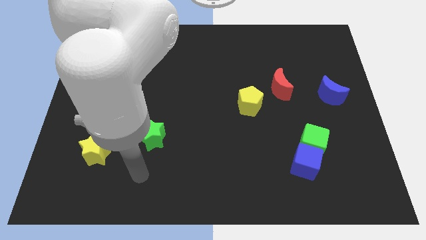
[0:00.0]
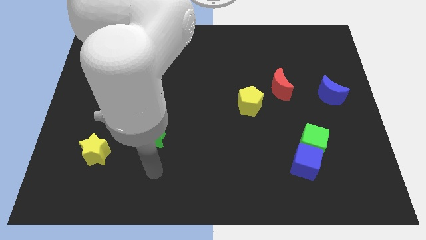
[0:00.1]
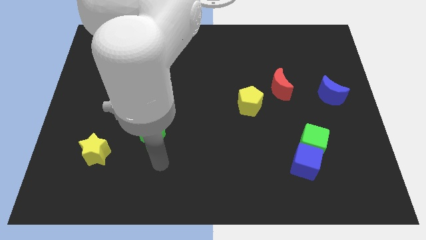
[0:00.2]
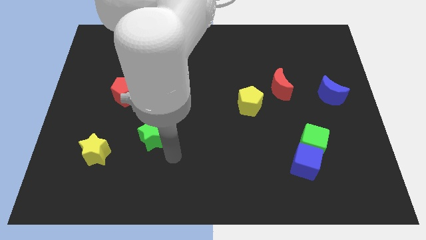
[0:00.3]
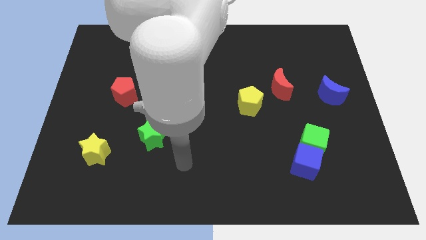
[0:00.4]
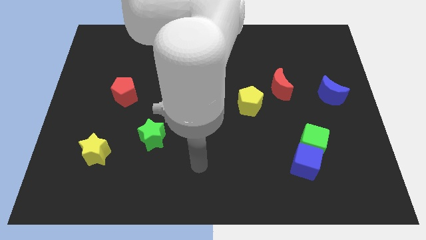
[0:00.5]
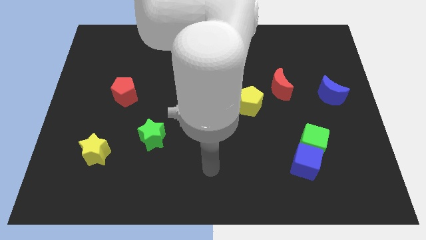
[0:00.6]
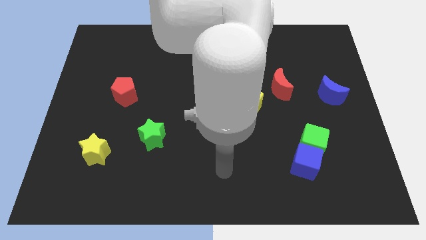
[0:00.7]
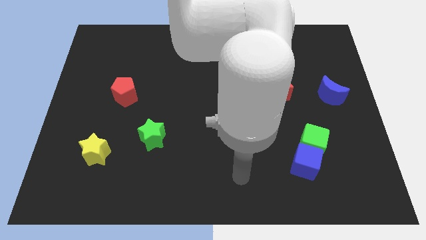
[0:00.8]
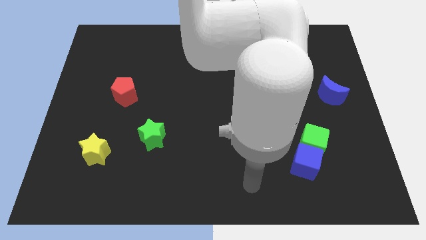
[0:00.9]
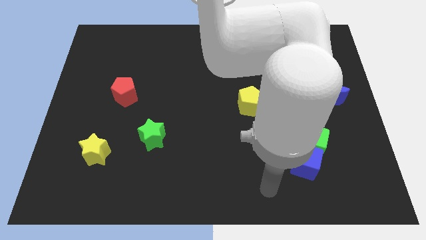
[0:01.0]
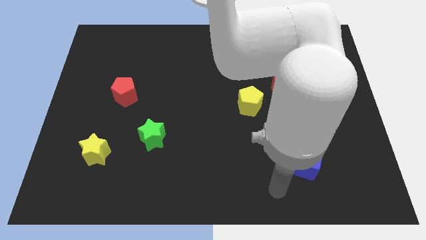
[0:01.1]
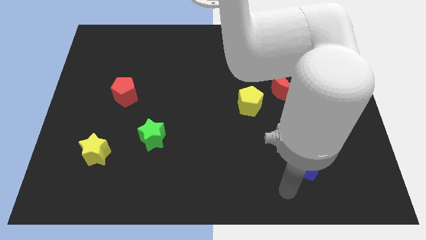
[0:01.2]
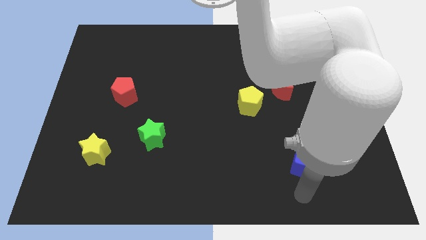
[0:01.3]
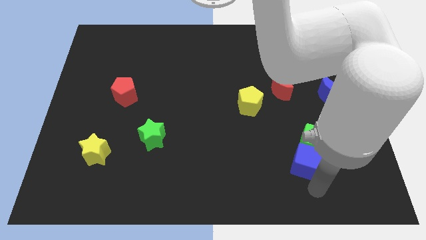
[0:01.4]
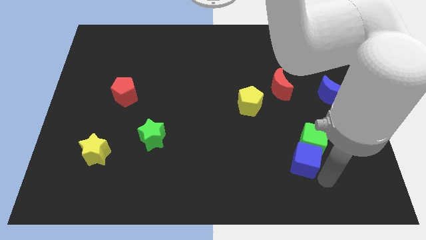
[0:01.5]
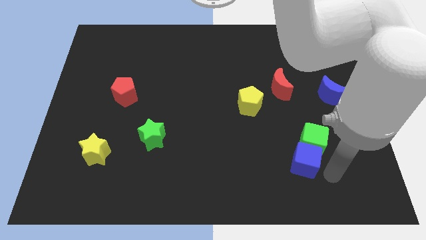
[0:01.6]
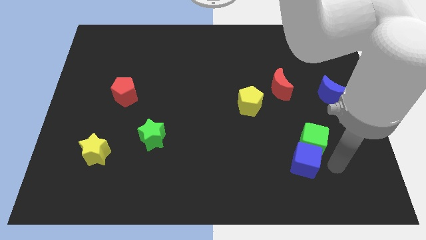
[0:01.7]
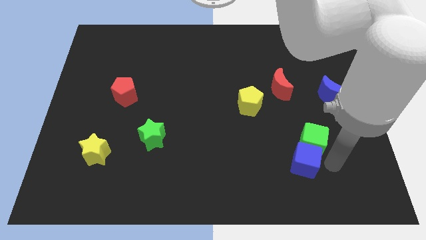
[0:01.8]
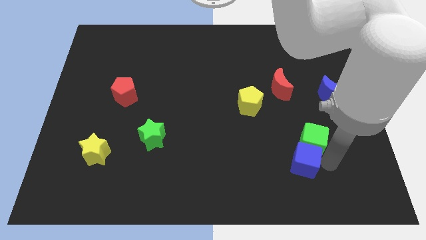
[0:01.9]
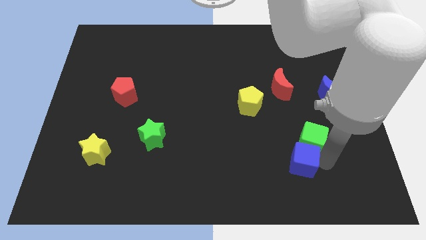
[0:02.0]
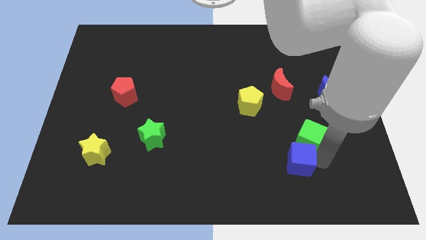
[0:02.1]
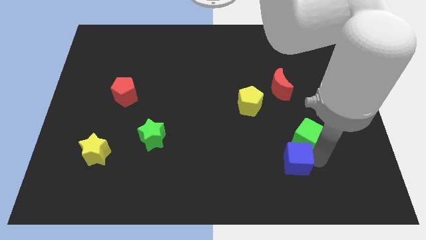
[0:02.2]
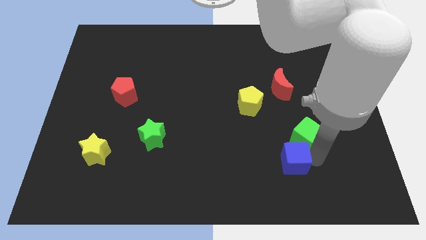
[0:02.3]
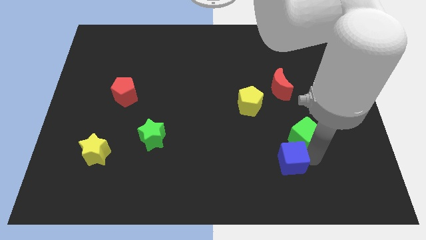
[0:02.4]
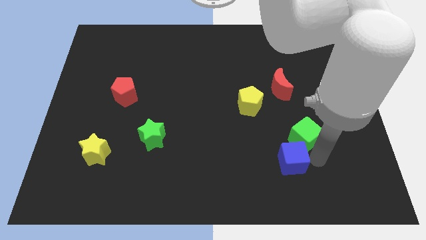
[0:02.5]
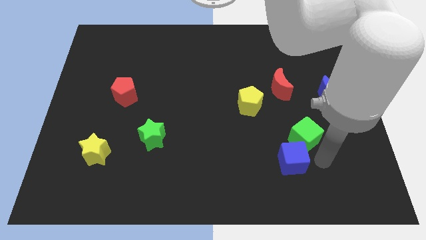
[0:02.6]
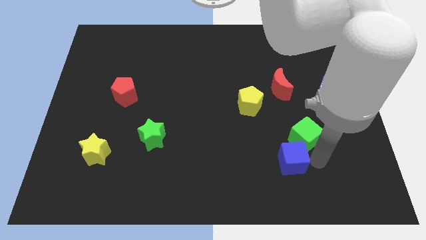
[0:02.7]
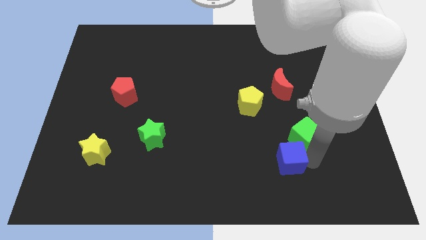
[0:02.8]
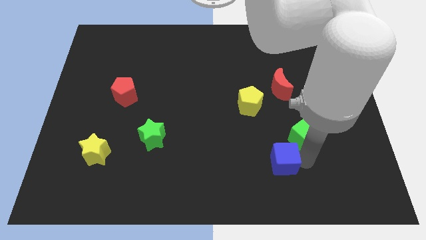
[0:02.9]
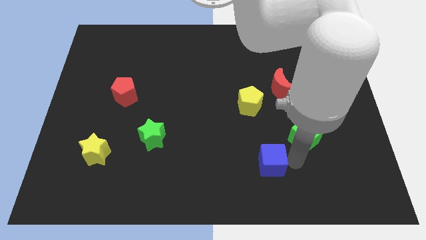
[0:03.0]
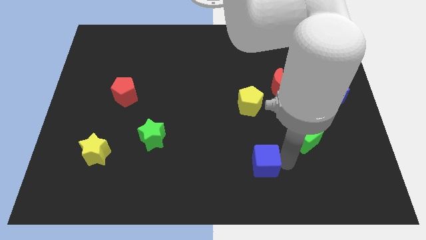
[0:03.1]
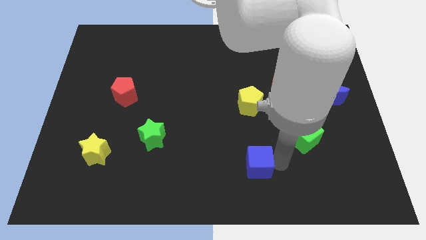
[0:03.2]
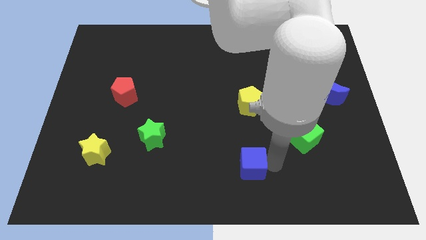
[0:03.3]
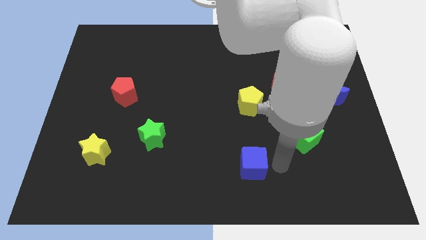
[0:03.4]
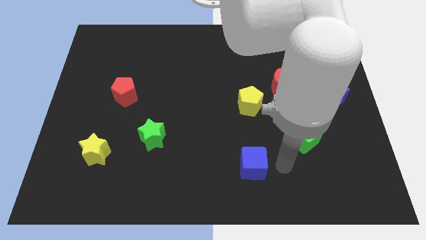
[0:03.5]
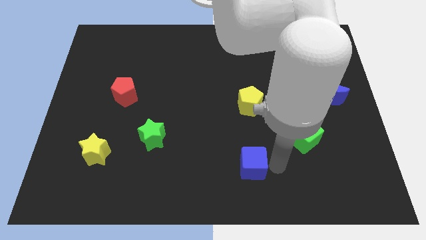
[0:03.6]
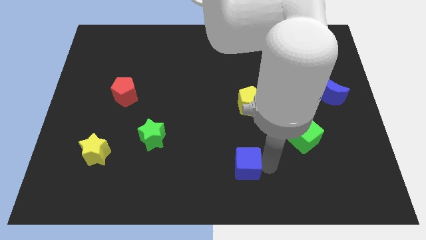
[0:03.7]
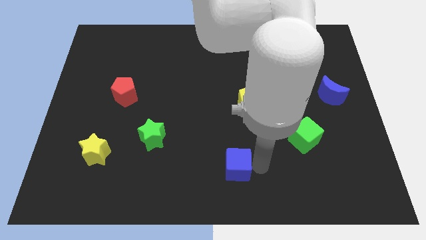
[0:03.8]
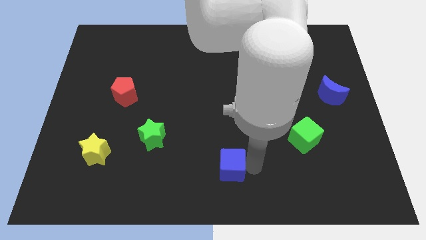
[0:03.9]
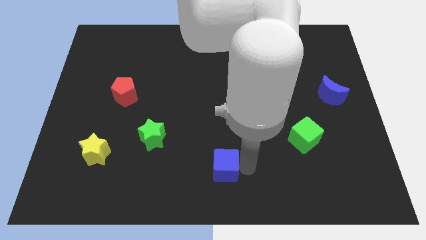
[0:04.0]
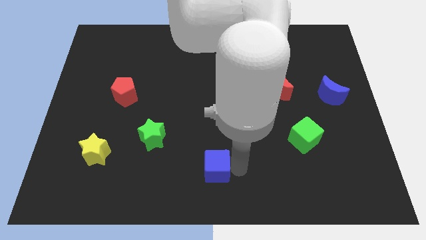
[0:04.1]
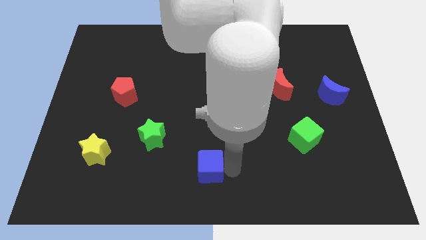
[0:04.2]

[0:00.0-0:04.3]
move the blue cube to the left

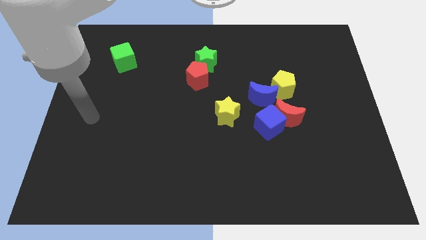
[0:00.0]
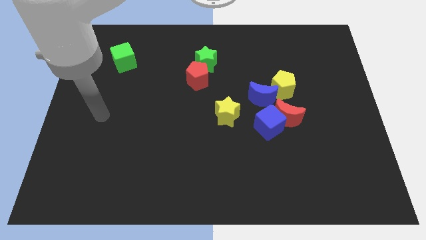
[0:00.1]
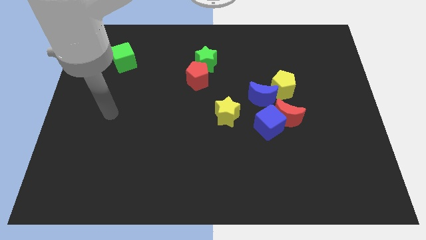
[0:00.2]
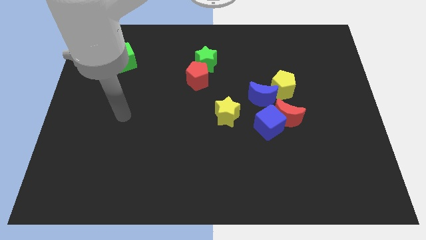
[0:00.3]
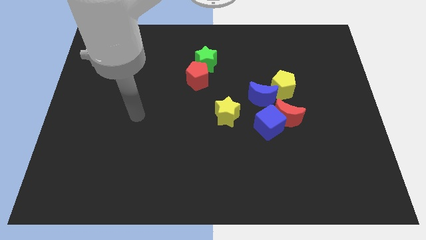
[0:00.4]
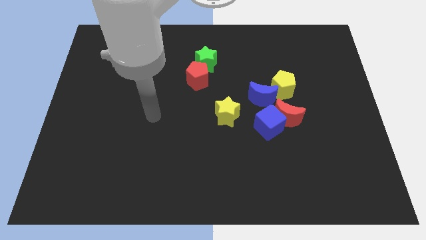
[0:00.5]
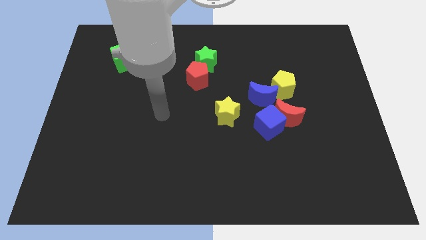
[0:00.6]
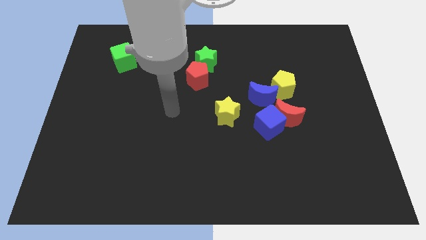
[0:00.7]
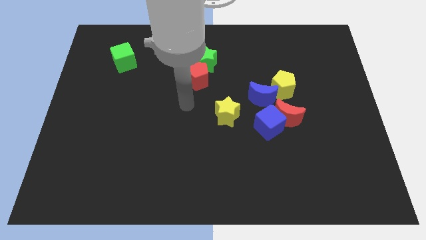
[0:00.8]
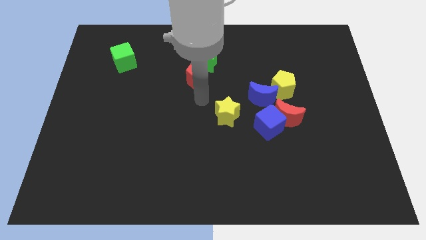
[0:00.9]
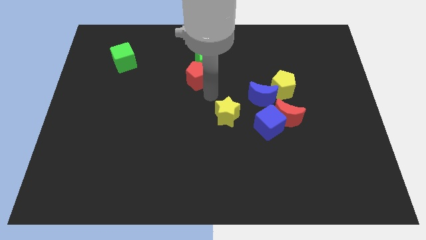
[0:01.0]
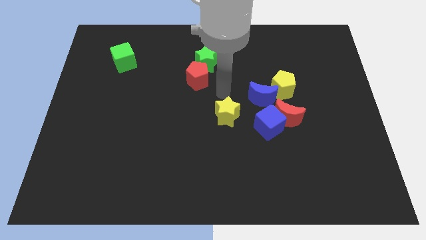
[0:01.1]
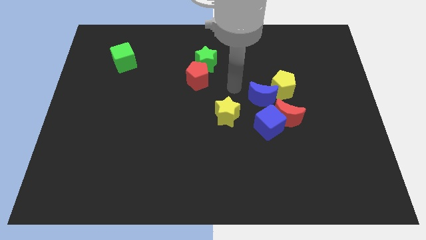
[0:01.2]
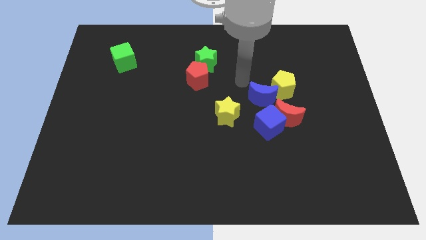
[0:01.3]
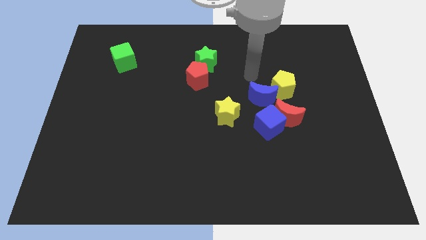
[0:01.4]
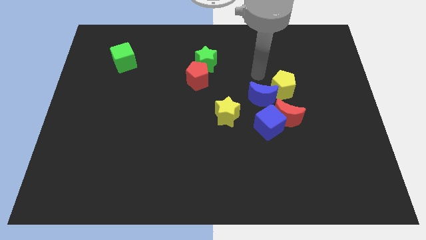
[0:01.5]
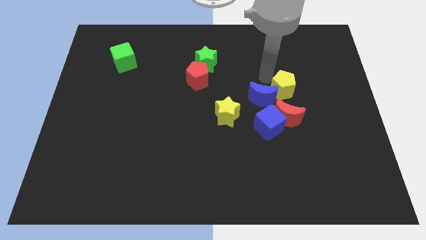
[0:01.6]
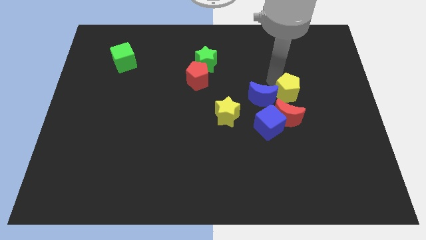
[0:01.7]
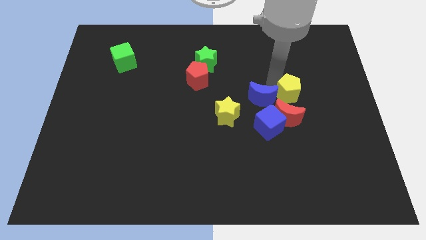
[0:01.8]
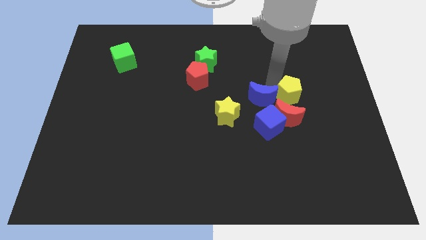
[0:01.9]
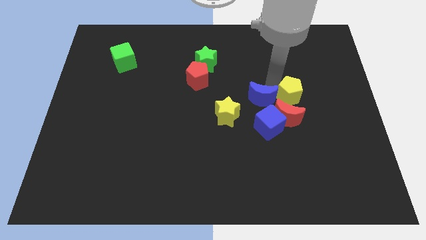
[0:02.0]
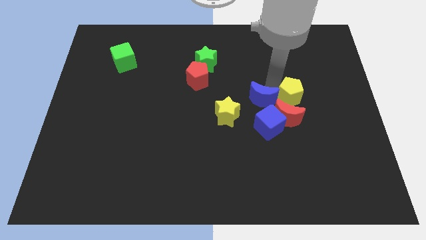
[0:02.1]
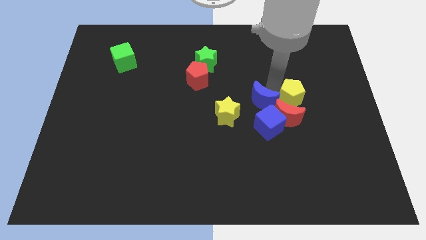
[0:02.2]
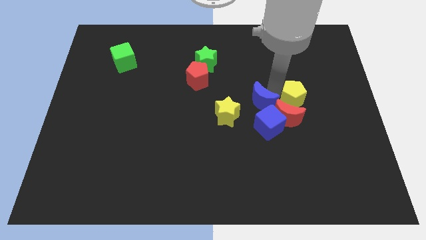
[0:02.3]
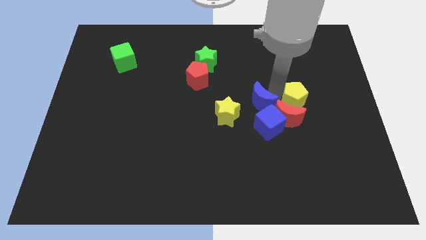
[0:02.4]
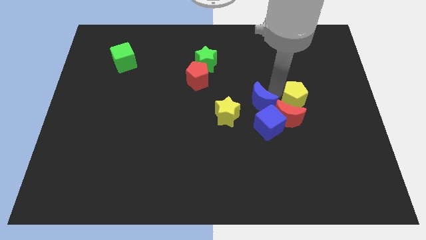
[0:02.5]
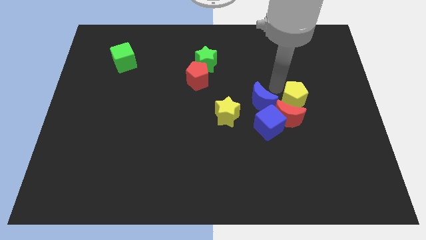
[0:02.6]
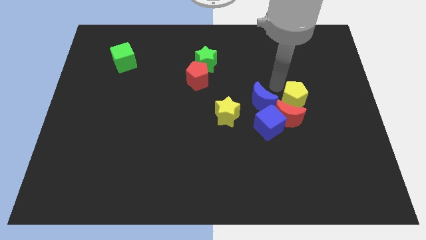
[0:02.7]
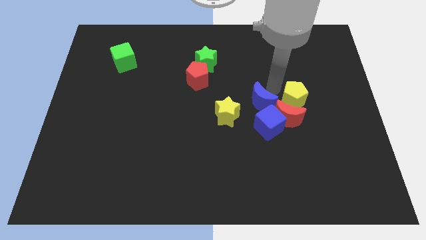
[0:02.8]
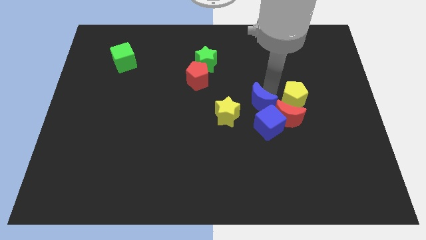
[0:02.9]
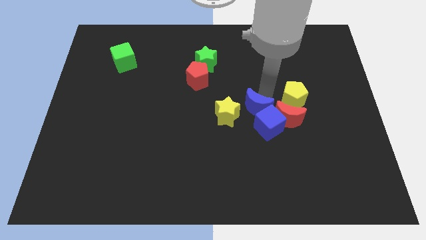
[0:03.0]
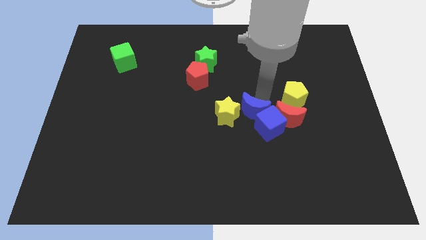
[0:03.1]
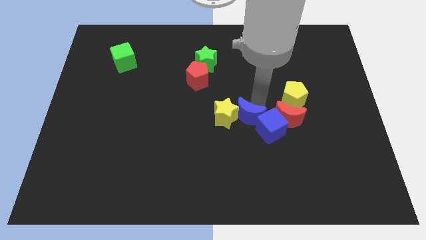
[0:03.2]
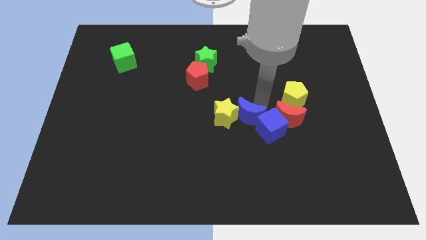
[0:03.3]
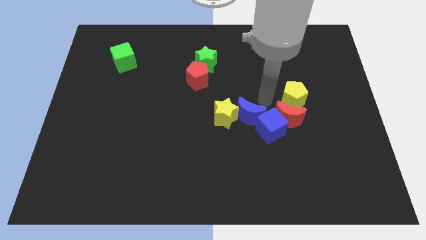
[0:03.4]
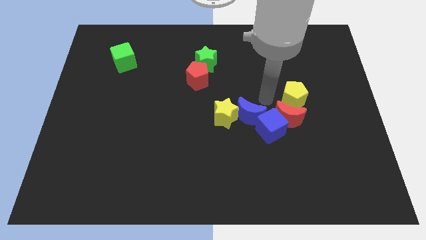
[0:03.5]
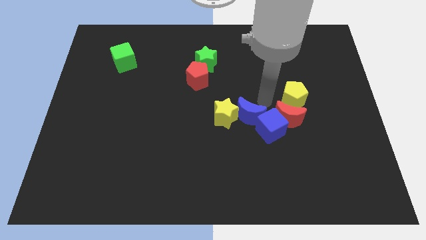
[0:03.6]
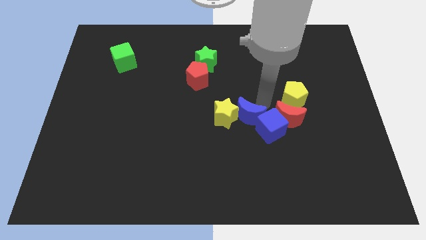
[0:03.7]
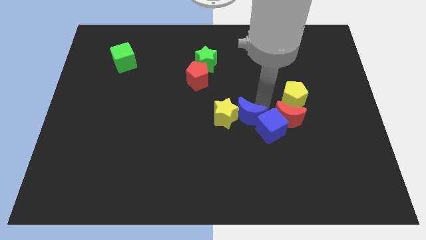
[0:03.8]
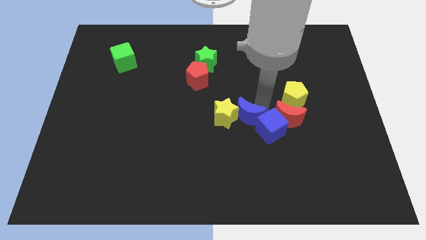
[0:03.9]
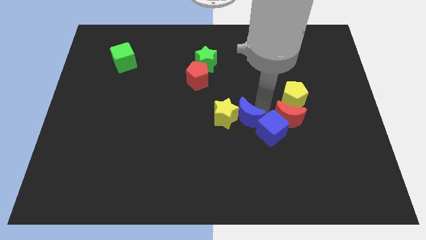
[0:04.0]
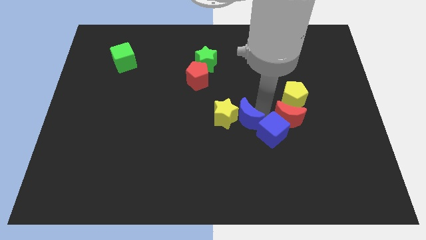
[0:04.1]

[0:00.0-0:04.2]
push the blue moon diagonally down and left a little
